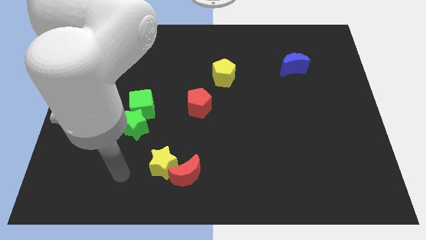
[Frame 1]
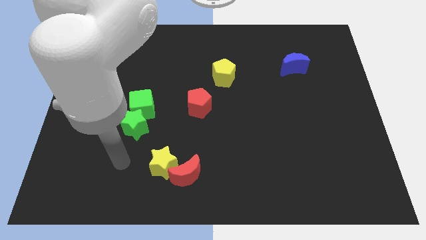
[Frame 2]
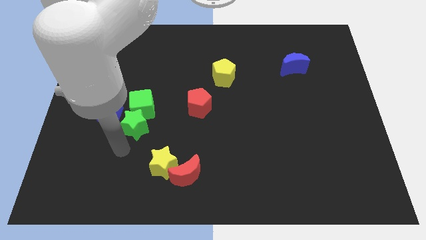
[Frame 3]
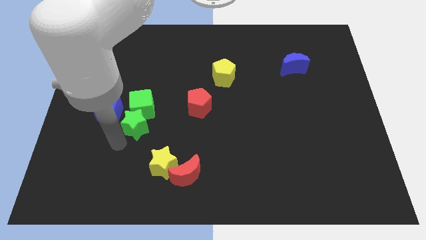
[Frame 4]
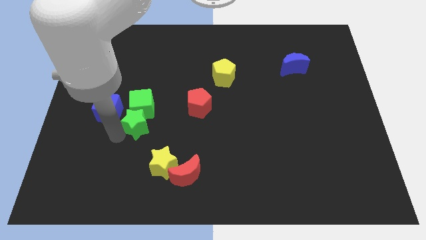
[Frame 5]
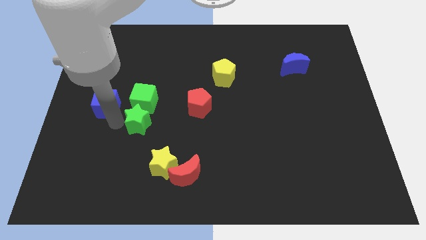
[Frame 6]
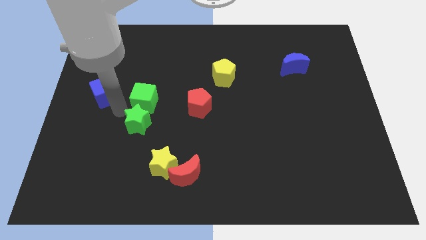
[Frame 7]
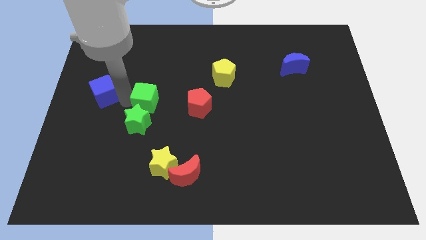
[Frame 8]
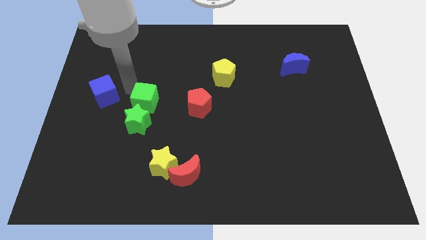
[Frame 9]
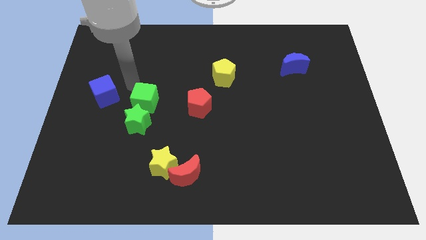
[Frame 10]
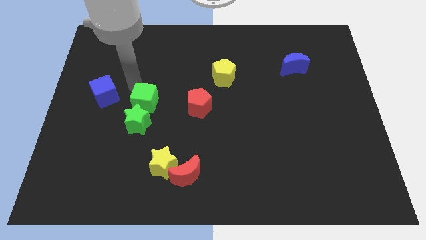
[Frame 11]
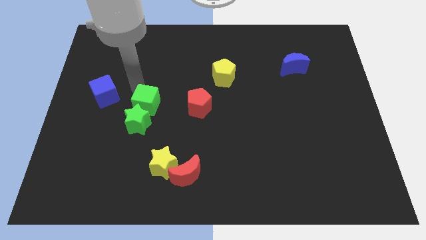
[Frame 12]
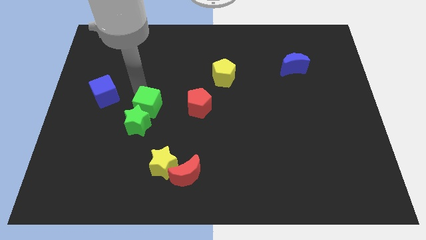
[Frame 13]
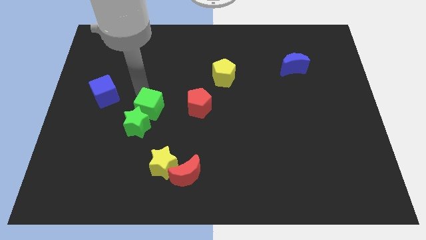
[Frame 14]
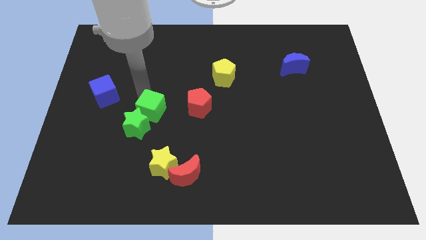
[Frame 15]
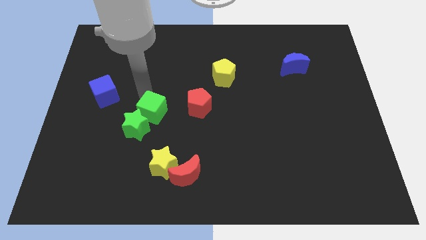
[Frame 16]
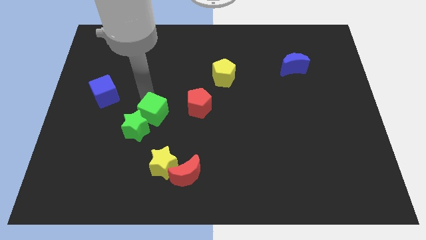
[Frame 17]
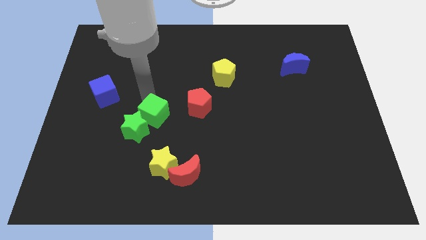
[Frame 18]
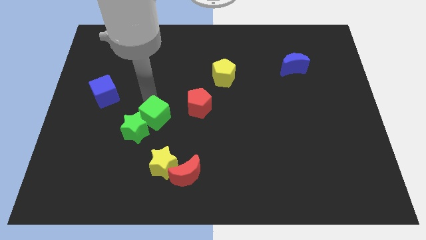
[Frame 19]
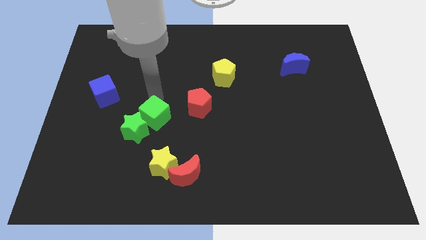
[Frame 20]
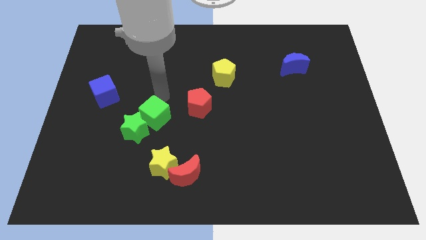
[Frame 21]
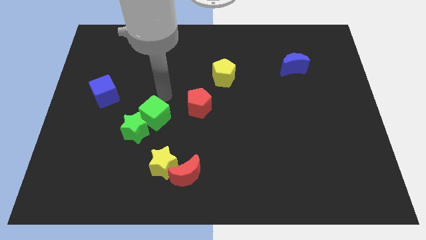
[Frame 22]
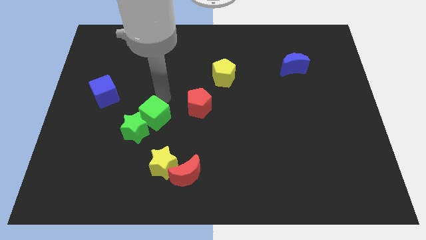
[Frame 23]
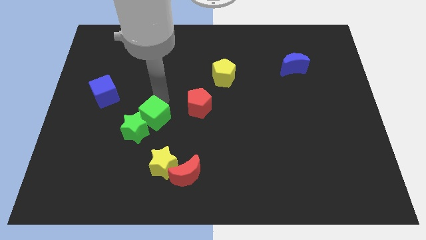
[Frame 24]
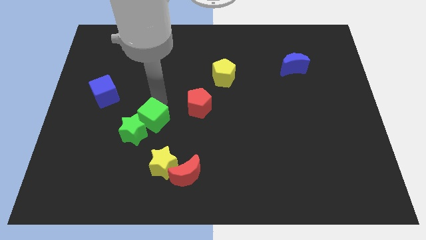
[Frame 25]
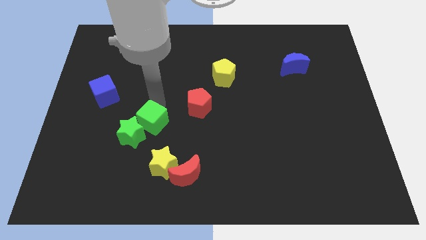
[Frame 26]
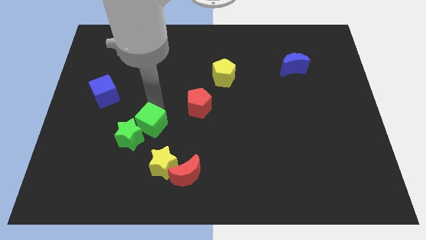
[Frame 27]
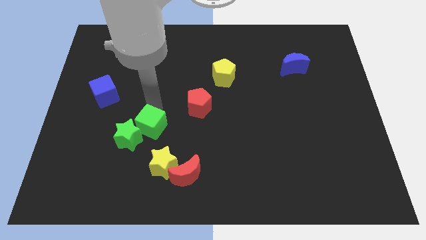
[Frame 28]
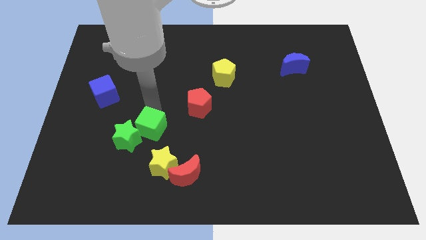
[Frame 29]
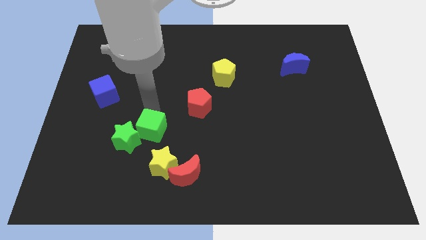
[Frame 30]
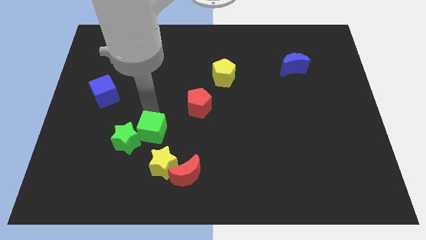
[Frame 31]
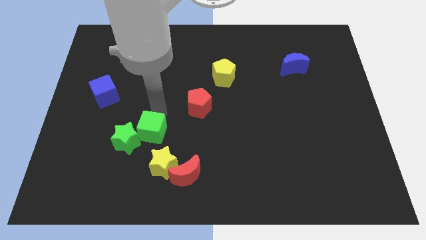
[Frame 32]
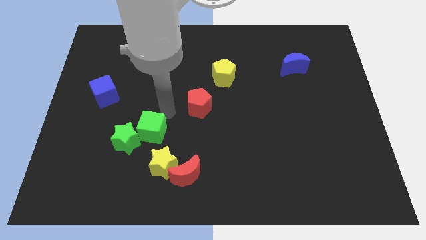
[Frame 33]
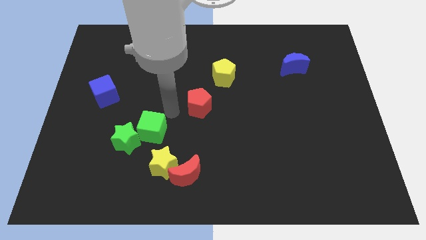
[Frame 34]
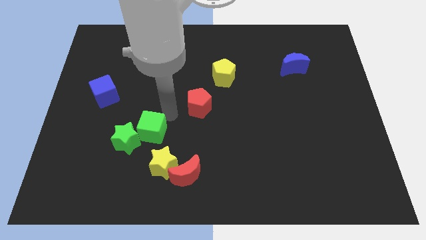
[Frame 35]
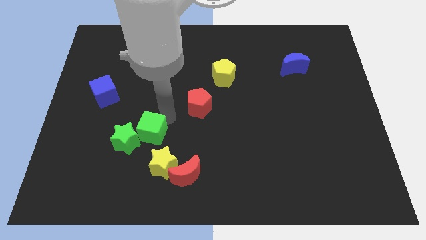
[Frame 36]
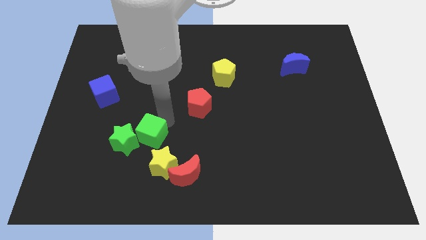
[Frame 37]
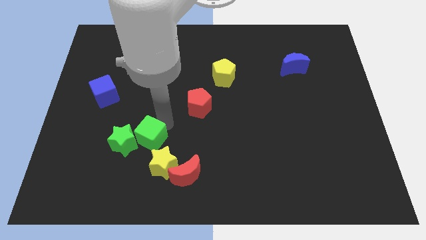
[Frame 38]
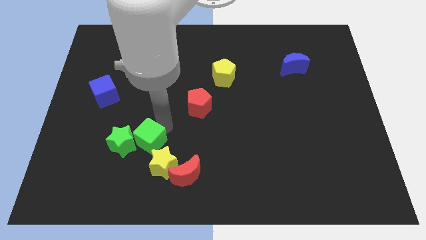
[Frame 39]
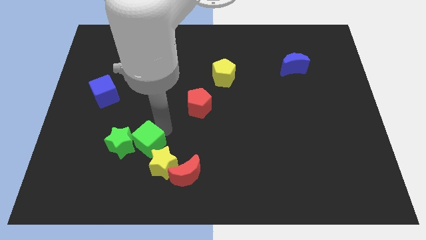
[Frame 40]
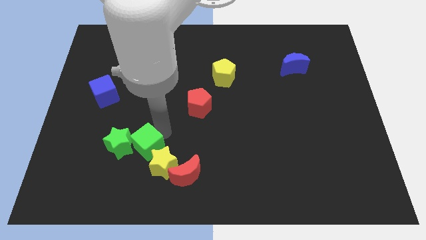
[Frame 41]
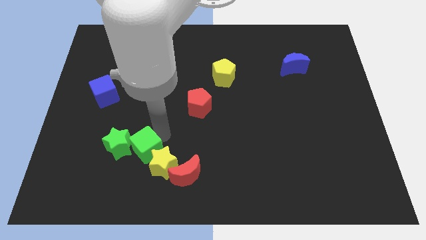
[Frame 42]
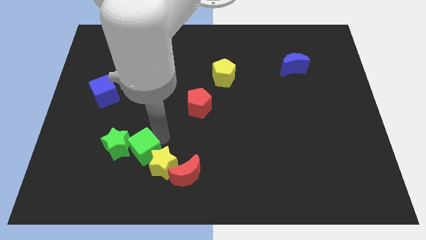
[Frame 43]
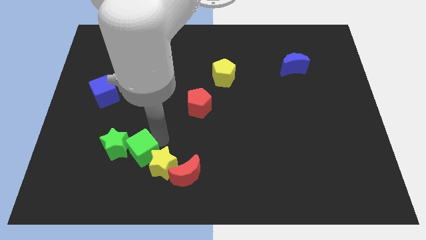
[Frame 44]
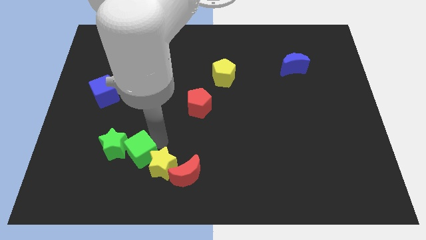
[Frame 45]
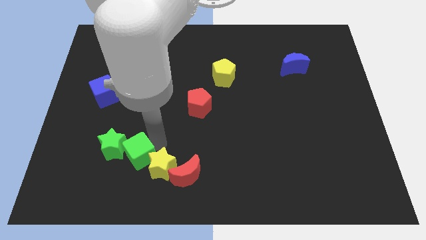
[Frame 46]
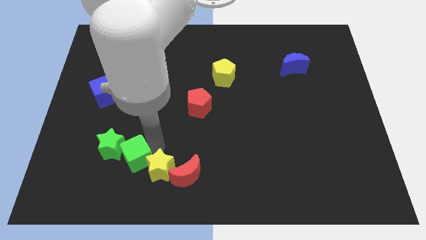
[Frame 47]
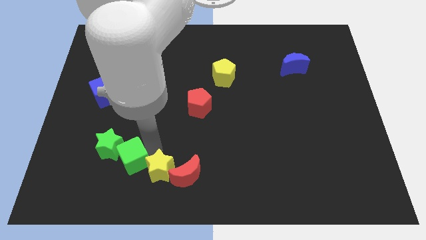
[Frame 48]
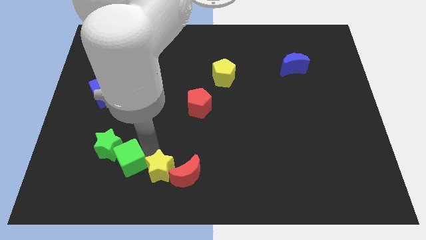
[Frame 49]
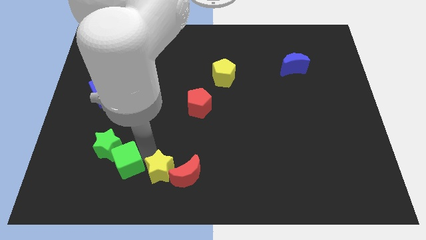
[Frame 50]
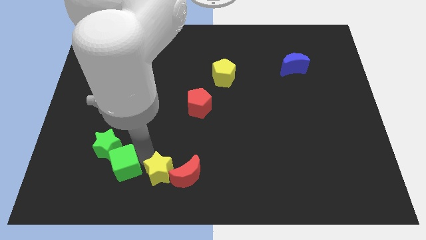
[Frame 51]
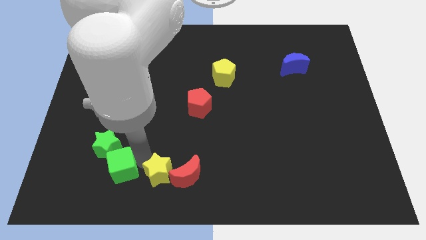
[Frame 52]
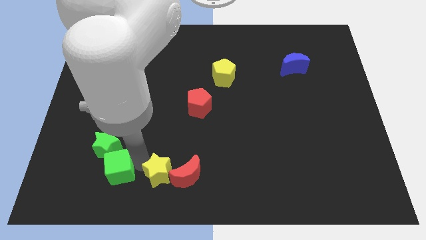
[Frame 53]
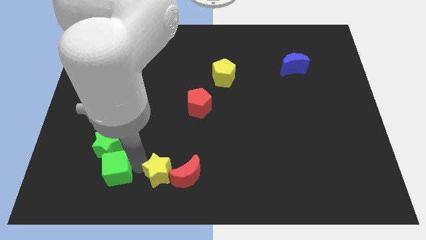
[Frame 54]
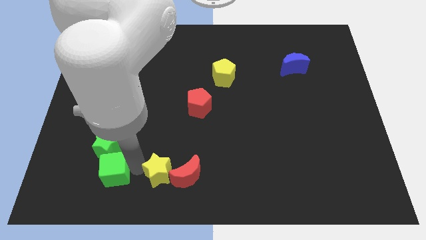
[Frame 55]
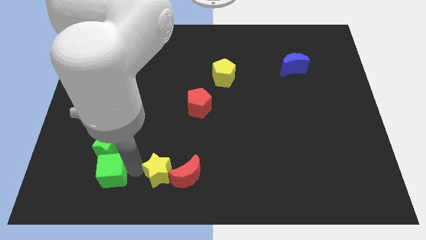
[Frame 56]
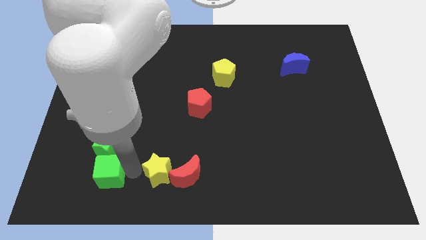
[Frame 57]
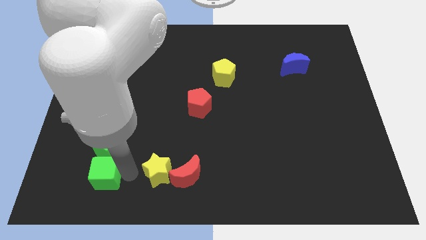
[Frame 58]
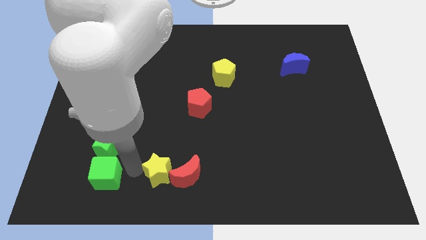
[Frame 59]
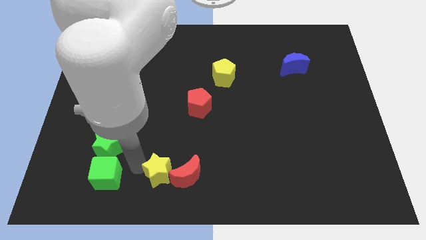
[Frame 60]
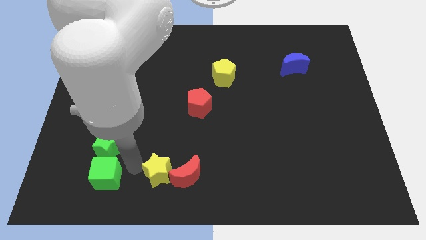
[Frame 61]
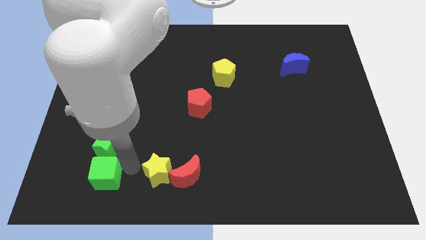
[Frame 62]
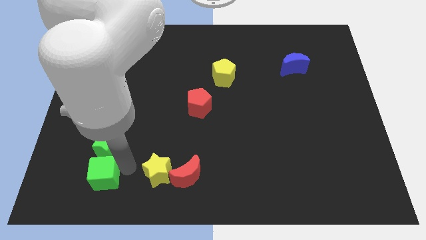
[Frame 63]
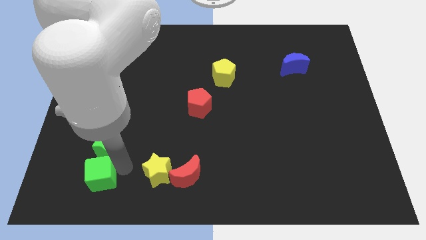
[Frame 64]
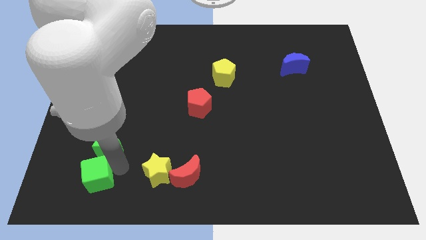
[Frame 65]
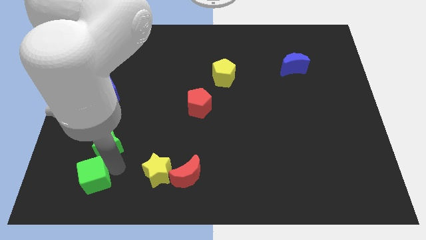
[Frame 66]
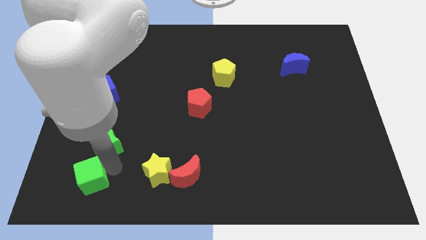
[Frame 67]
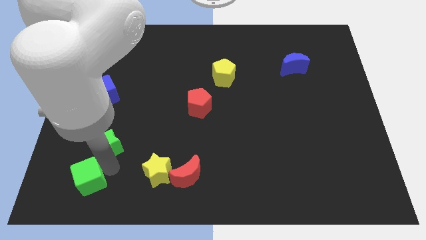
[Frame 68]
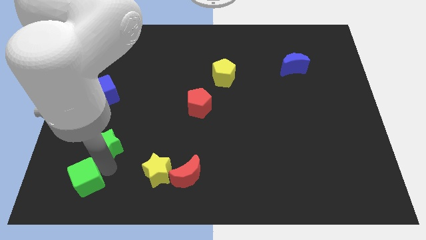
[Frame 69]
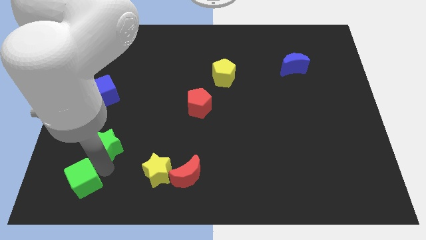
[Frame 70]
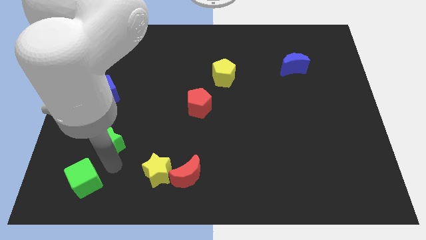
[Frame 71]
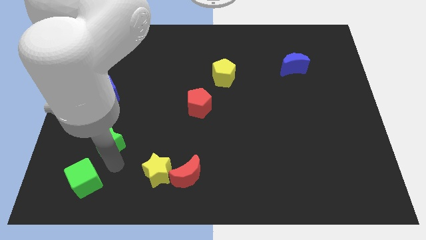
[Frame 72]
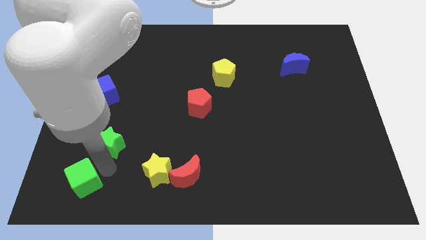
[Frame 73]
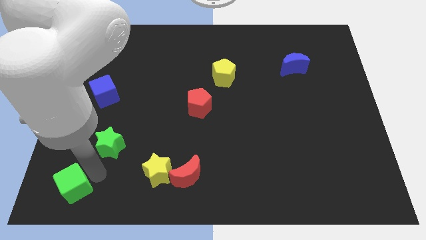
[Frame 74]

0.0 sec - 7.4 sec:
put the green cube to the bottom left

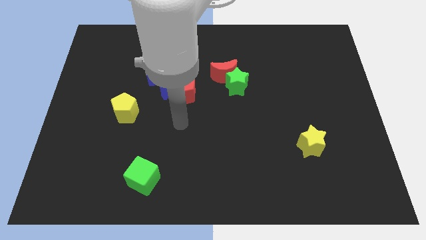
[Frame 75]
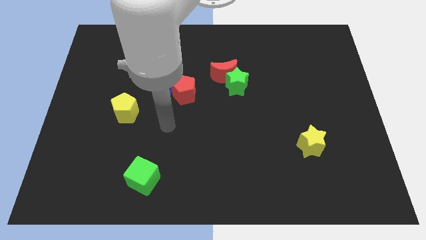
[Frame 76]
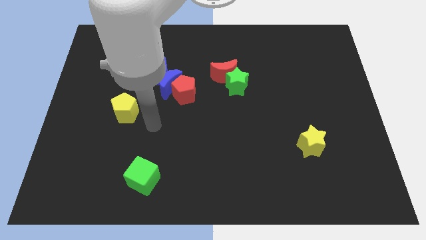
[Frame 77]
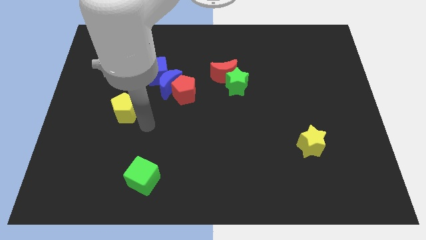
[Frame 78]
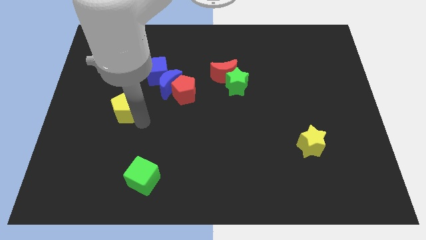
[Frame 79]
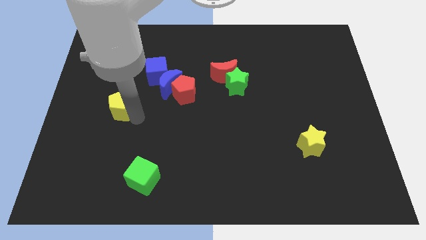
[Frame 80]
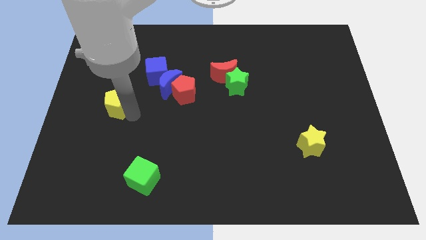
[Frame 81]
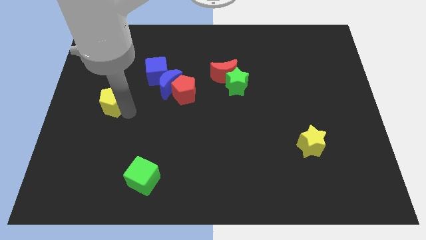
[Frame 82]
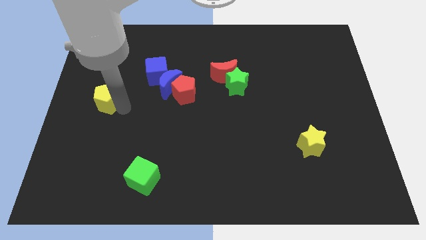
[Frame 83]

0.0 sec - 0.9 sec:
move the yellow pentagon to the left side
